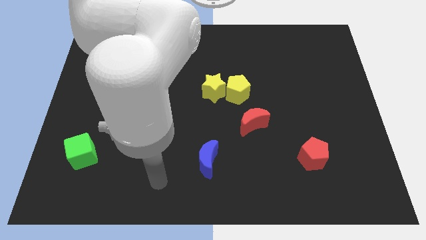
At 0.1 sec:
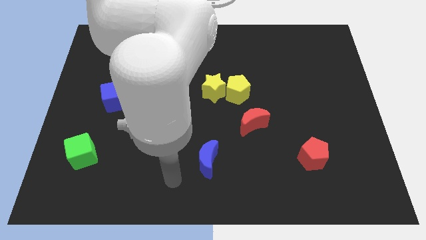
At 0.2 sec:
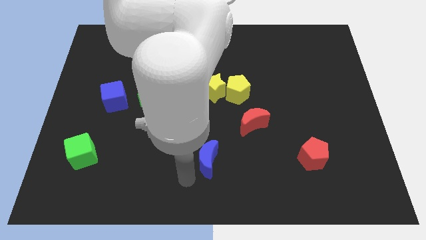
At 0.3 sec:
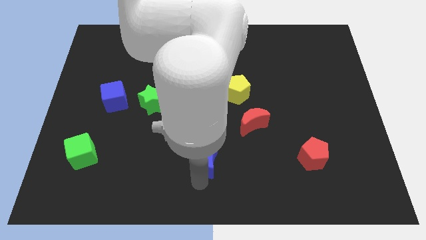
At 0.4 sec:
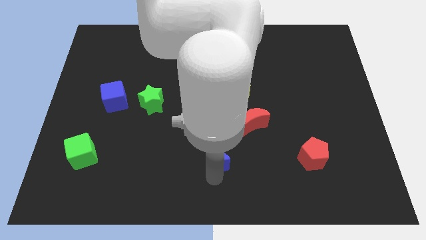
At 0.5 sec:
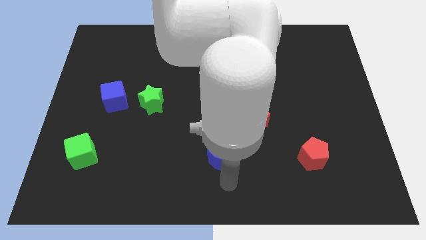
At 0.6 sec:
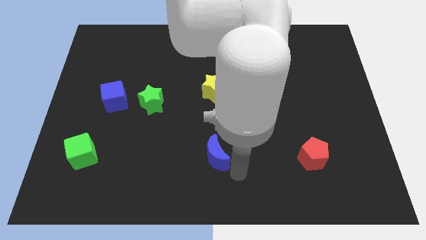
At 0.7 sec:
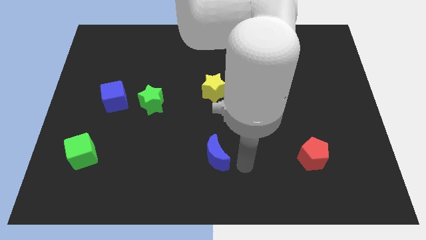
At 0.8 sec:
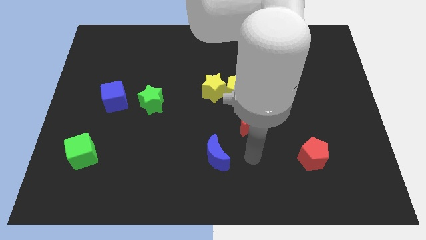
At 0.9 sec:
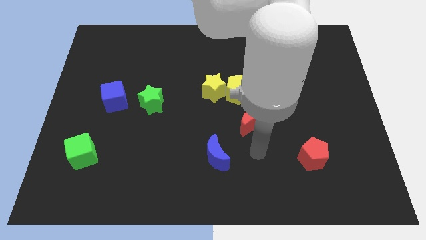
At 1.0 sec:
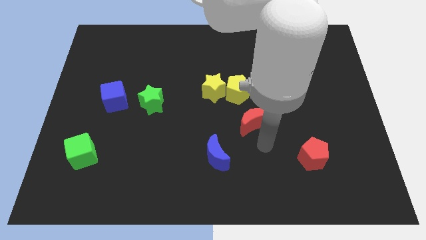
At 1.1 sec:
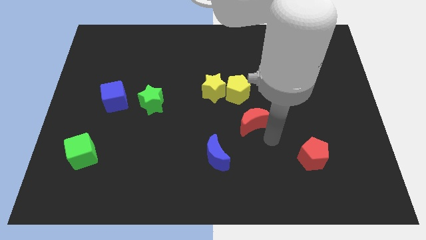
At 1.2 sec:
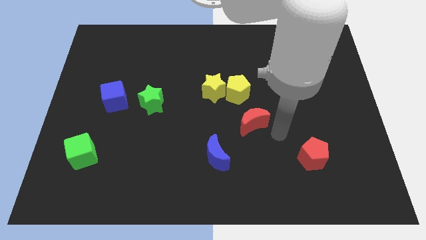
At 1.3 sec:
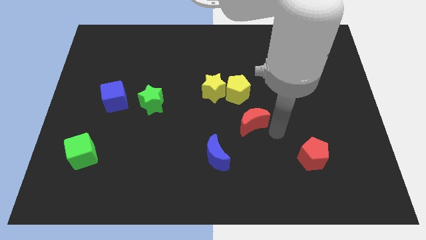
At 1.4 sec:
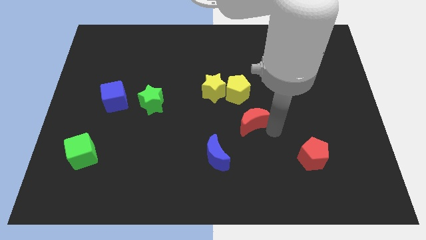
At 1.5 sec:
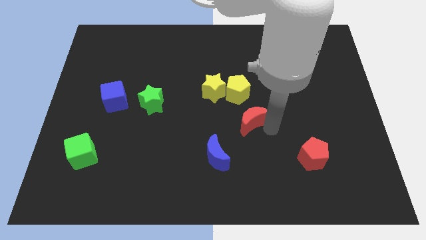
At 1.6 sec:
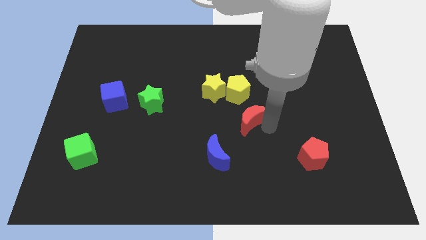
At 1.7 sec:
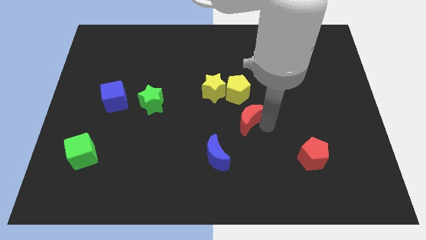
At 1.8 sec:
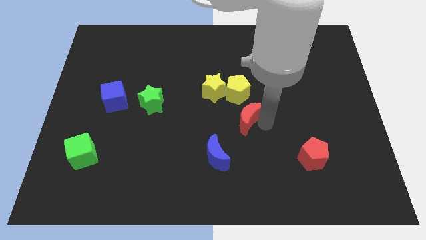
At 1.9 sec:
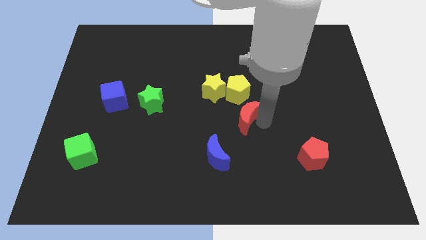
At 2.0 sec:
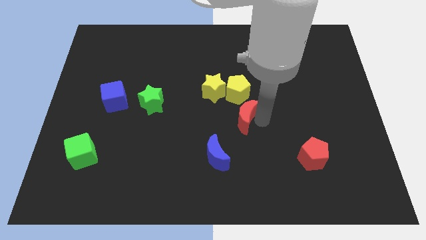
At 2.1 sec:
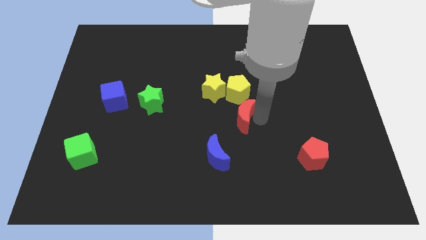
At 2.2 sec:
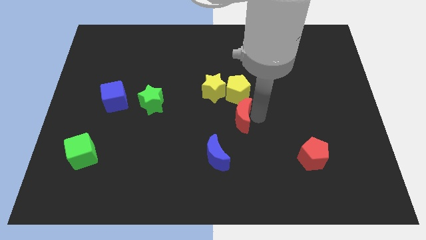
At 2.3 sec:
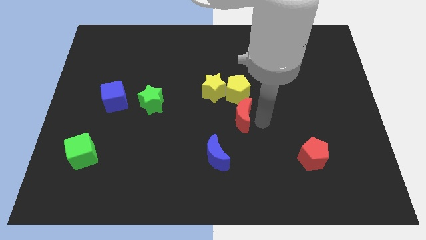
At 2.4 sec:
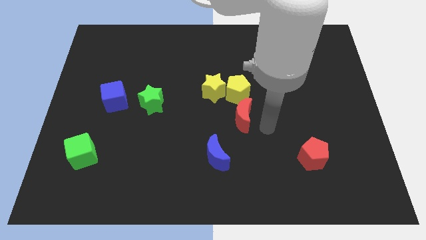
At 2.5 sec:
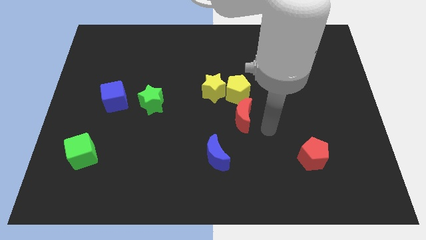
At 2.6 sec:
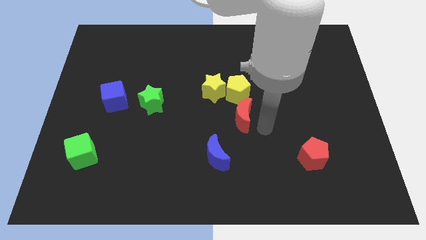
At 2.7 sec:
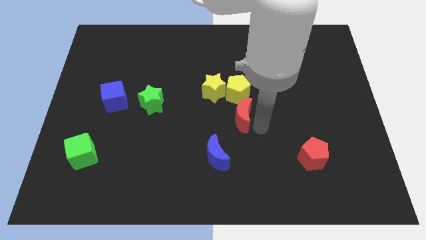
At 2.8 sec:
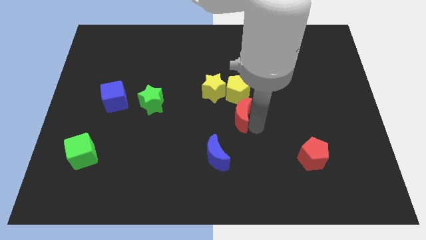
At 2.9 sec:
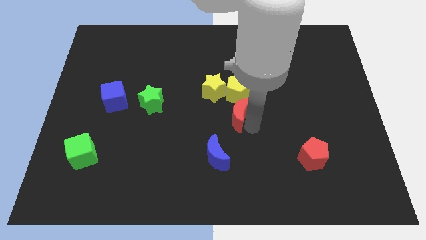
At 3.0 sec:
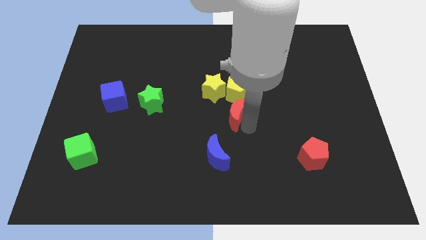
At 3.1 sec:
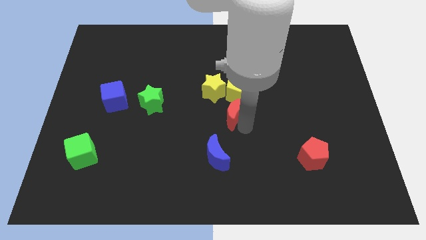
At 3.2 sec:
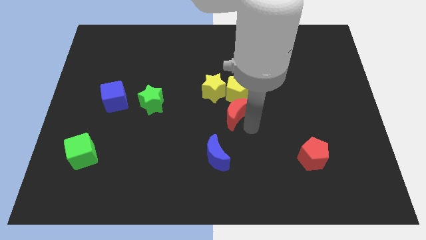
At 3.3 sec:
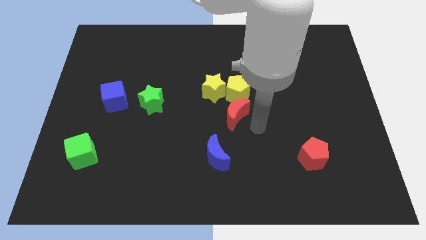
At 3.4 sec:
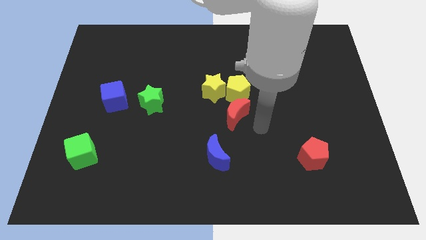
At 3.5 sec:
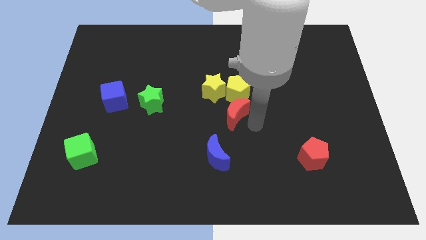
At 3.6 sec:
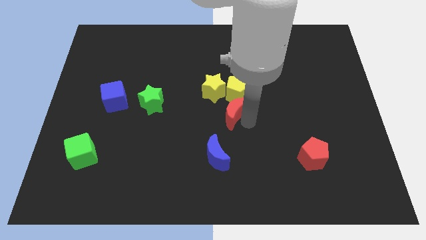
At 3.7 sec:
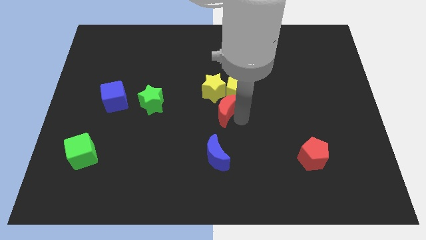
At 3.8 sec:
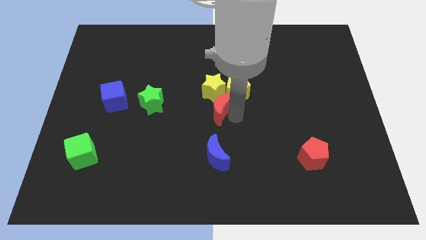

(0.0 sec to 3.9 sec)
slightly push the red moon upwards and to the left diagonally

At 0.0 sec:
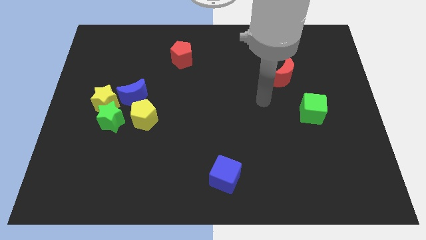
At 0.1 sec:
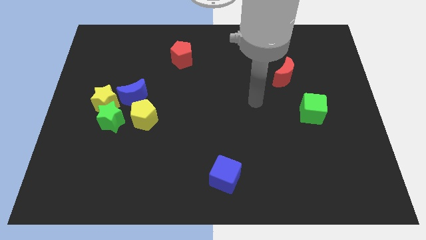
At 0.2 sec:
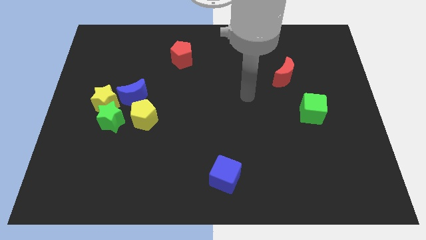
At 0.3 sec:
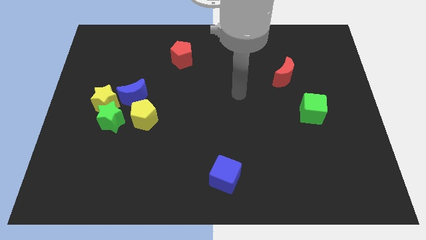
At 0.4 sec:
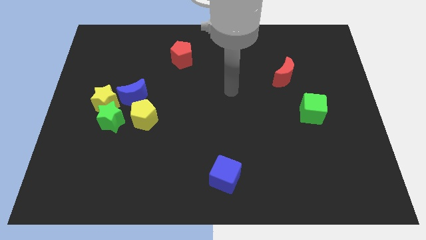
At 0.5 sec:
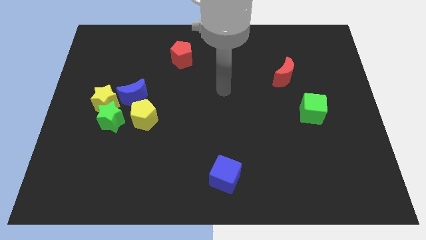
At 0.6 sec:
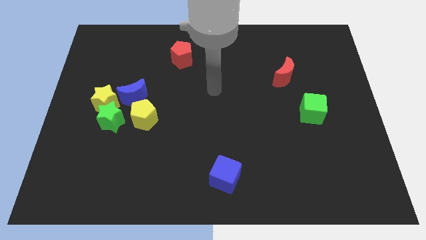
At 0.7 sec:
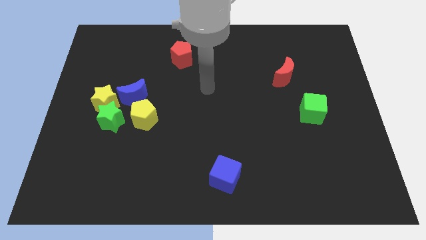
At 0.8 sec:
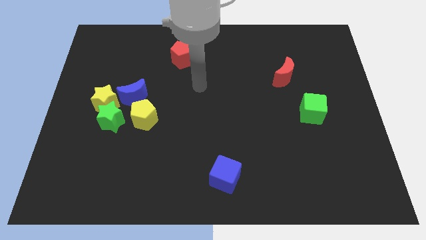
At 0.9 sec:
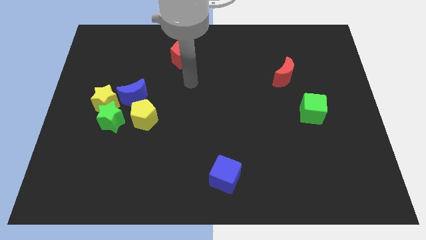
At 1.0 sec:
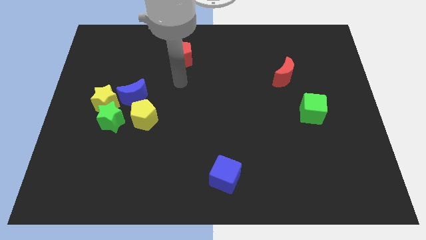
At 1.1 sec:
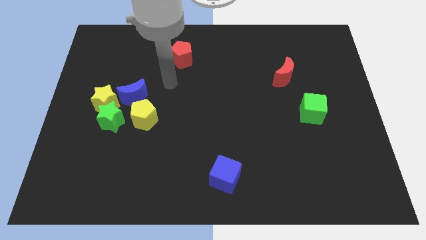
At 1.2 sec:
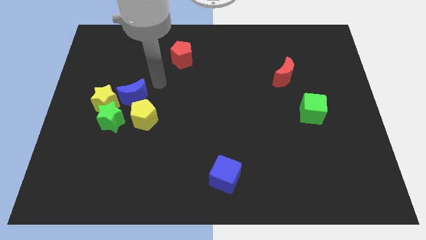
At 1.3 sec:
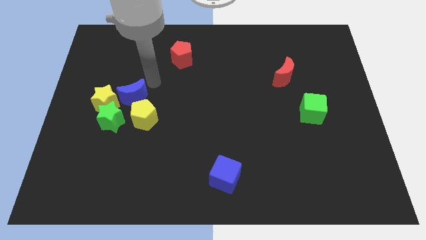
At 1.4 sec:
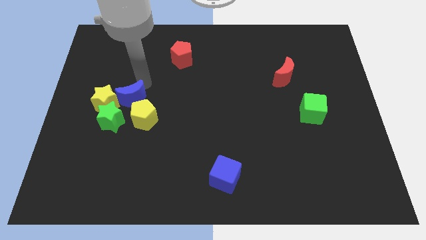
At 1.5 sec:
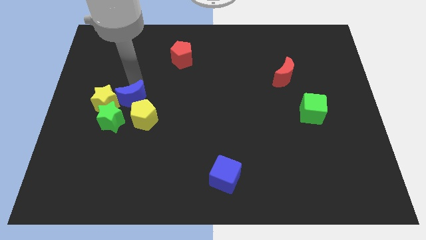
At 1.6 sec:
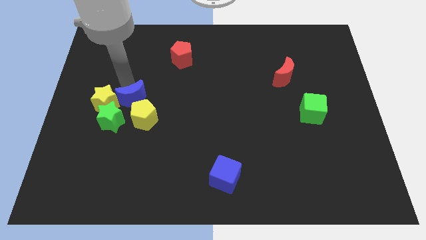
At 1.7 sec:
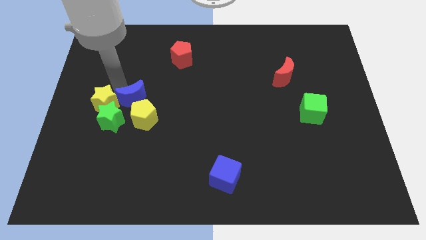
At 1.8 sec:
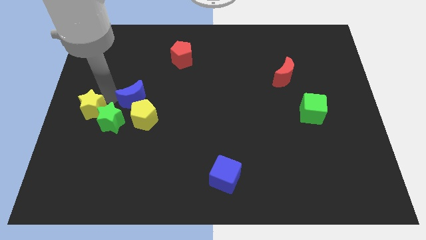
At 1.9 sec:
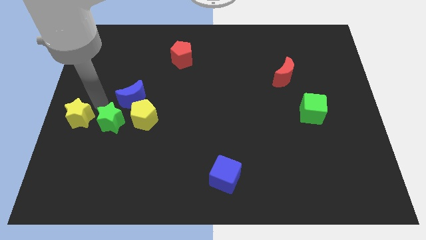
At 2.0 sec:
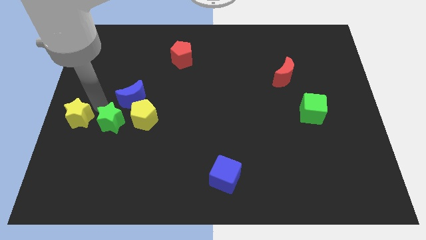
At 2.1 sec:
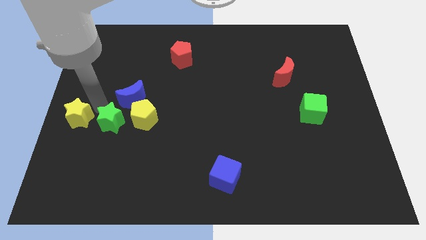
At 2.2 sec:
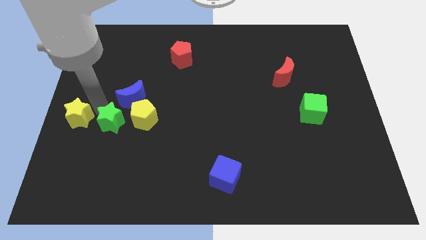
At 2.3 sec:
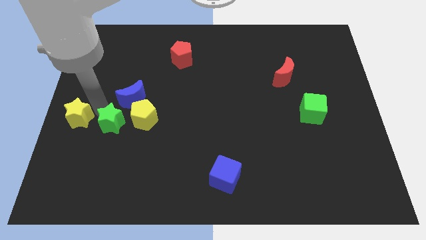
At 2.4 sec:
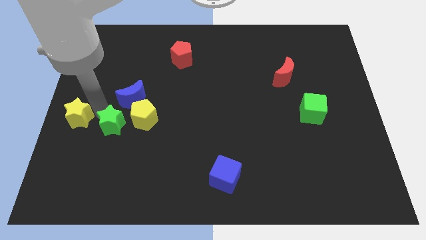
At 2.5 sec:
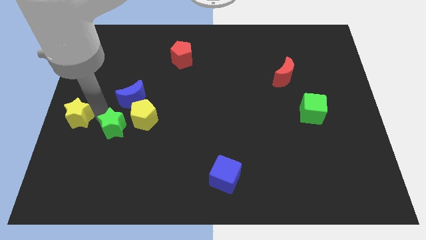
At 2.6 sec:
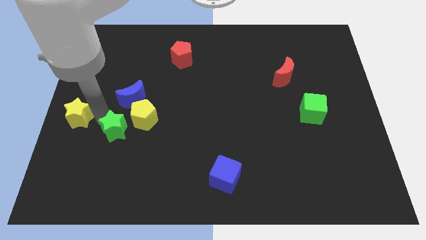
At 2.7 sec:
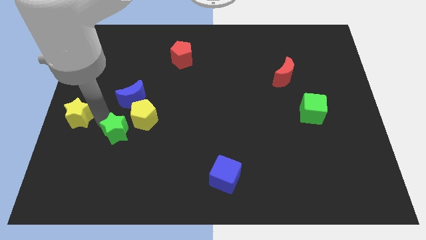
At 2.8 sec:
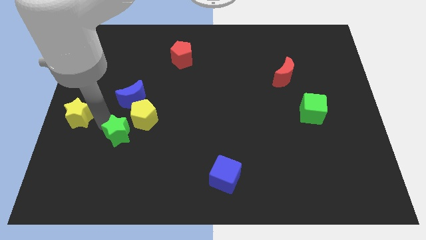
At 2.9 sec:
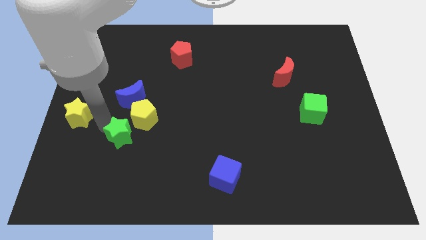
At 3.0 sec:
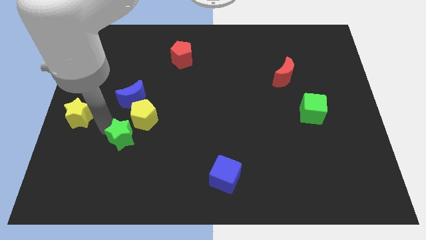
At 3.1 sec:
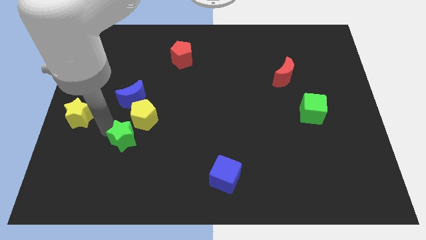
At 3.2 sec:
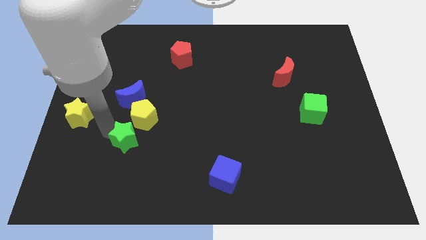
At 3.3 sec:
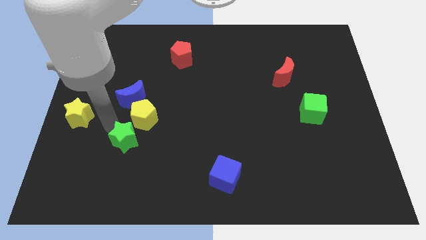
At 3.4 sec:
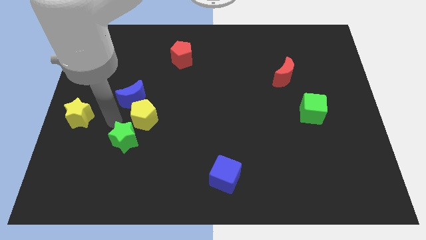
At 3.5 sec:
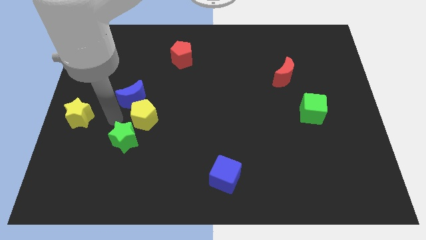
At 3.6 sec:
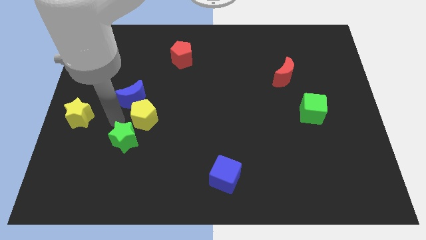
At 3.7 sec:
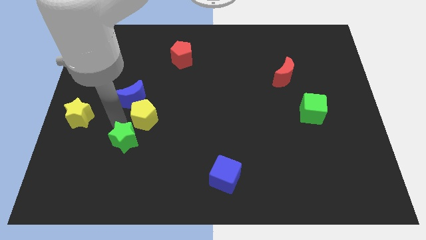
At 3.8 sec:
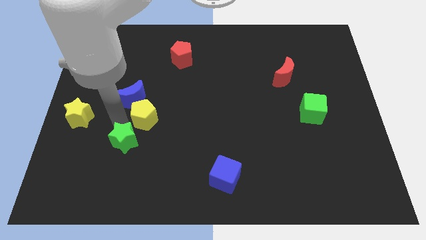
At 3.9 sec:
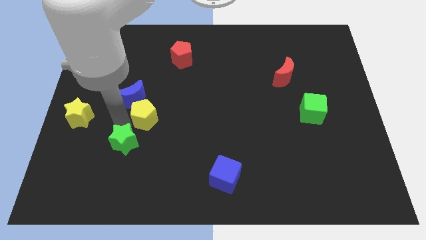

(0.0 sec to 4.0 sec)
move the green star somewhat down and right diagonally
